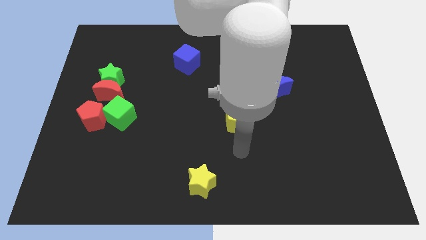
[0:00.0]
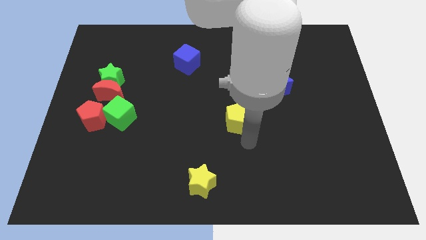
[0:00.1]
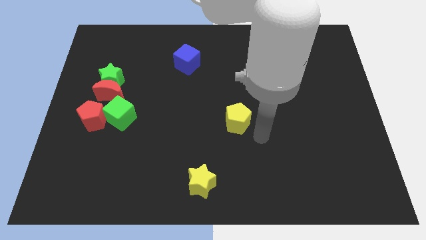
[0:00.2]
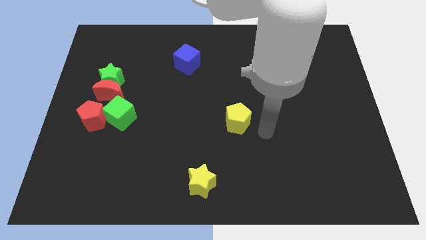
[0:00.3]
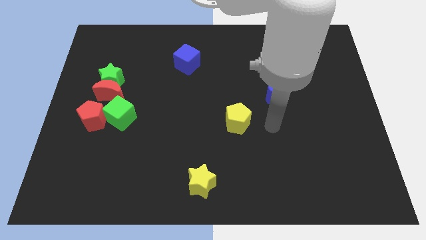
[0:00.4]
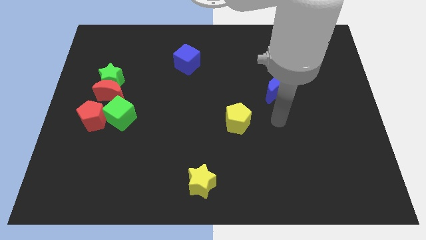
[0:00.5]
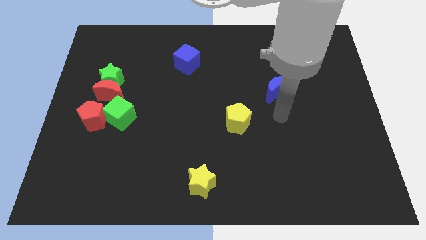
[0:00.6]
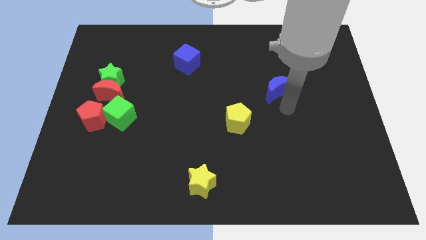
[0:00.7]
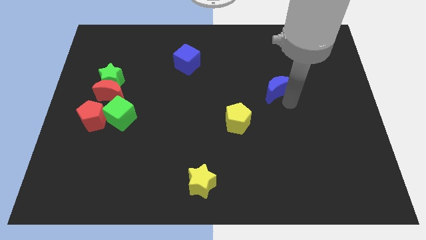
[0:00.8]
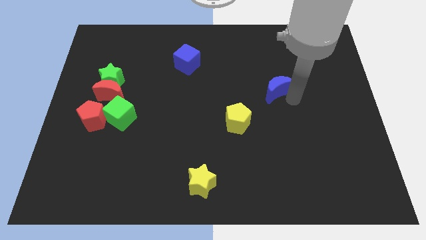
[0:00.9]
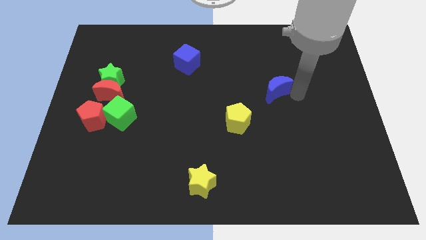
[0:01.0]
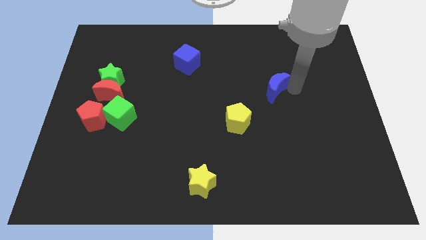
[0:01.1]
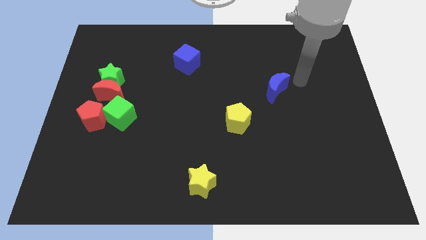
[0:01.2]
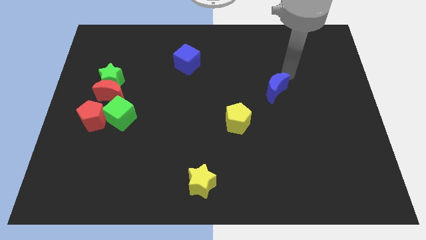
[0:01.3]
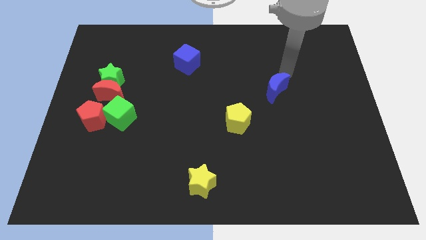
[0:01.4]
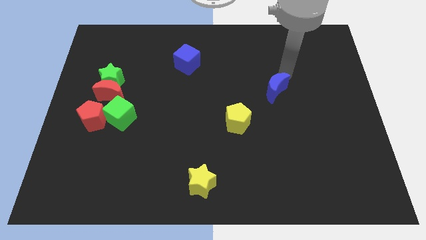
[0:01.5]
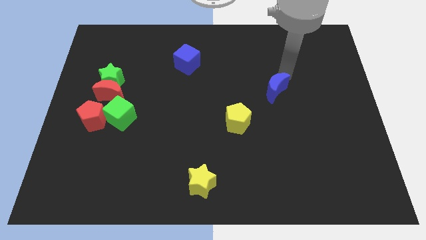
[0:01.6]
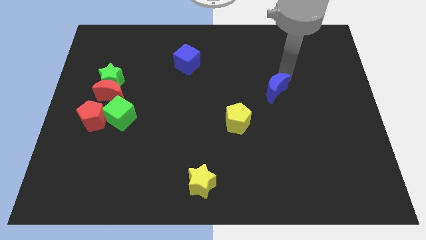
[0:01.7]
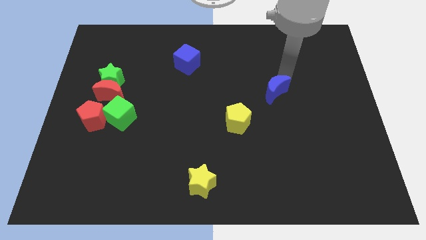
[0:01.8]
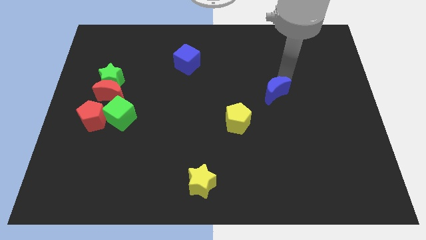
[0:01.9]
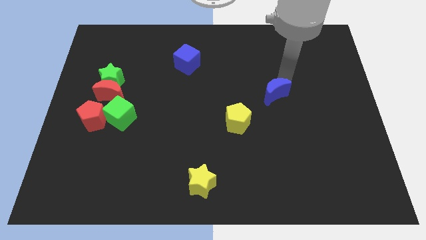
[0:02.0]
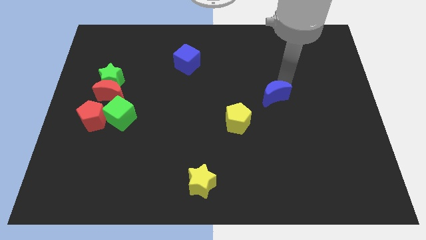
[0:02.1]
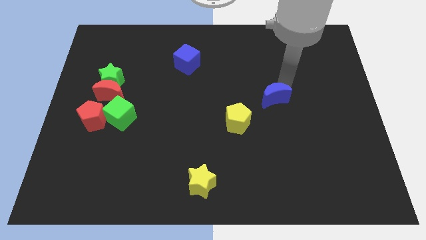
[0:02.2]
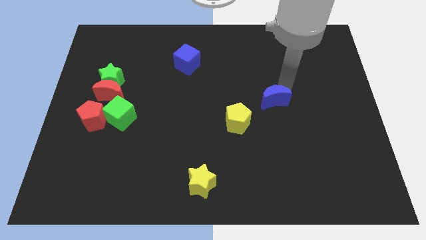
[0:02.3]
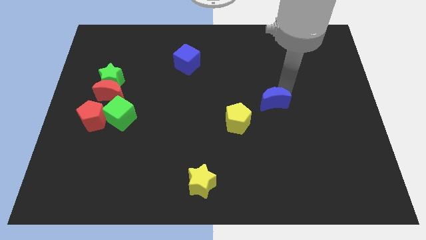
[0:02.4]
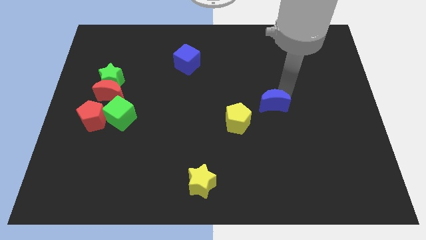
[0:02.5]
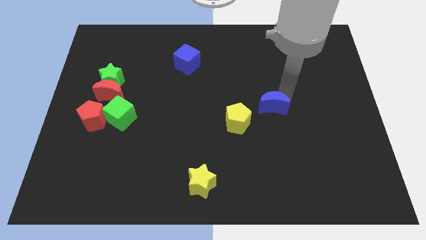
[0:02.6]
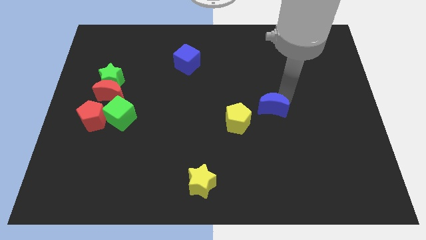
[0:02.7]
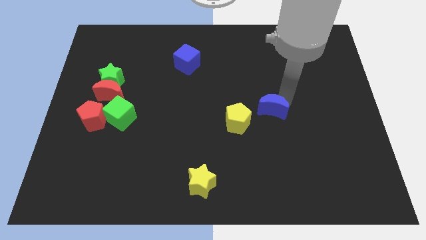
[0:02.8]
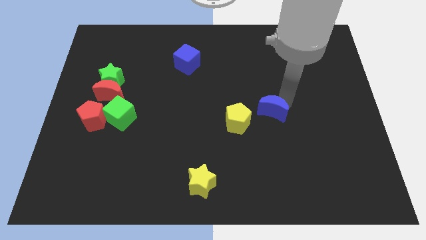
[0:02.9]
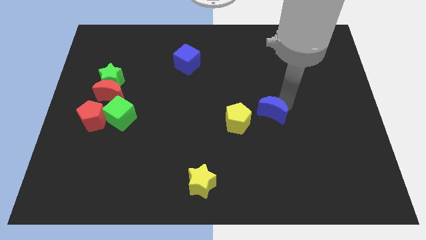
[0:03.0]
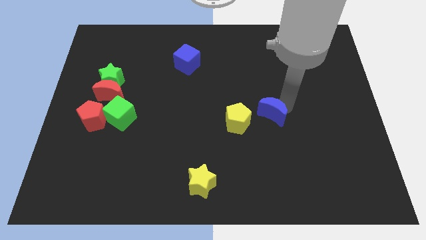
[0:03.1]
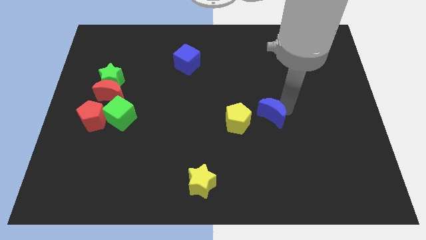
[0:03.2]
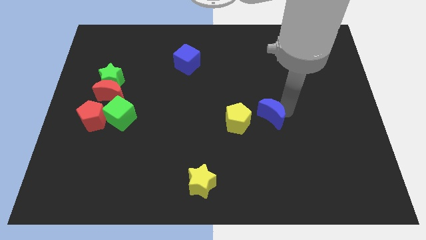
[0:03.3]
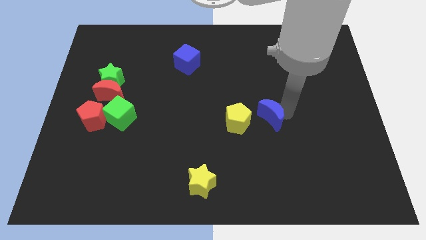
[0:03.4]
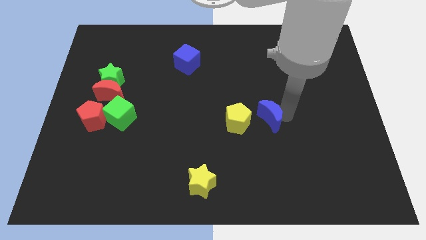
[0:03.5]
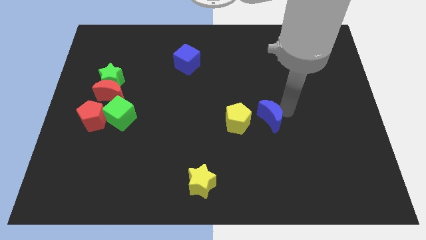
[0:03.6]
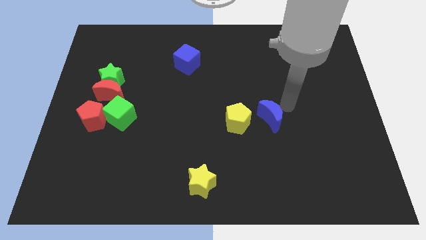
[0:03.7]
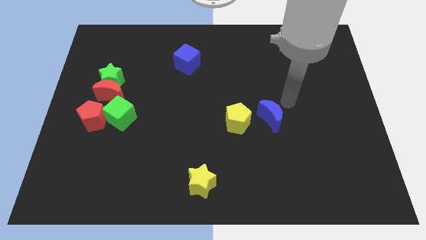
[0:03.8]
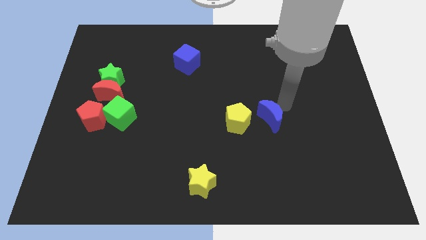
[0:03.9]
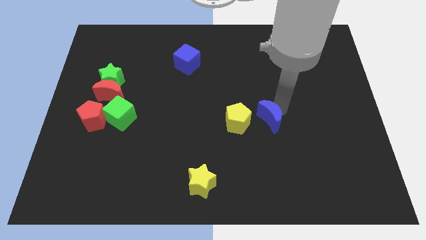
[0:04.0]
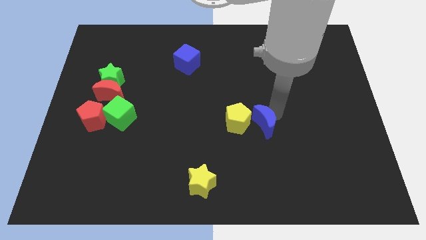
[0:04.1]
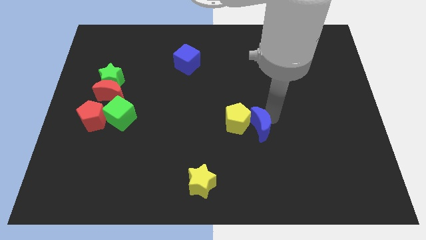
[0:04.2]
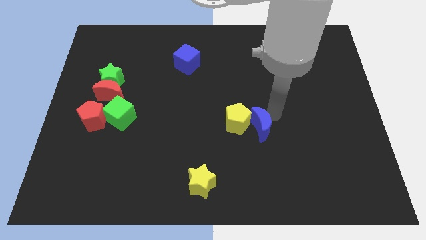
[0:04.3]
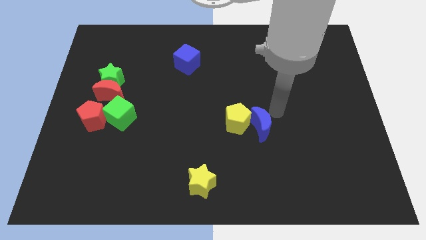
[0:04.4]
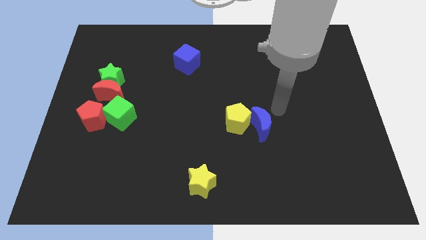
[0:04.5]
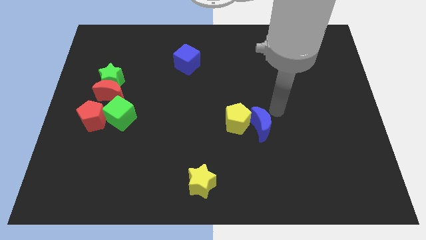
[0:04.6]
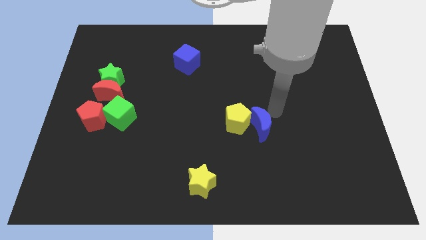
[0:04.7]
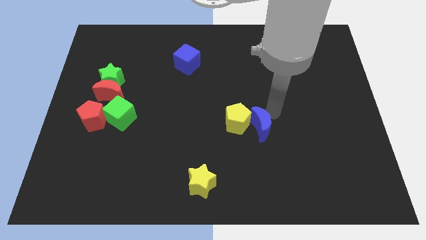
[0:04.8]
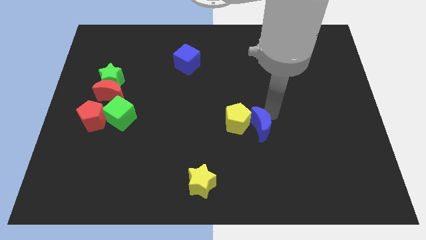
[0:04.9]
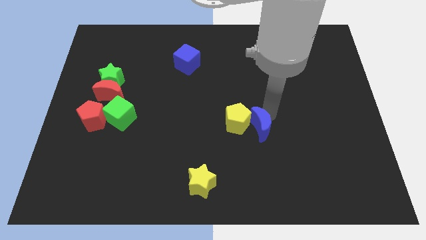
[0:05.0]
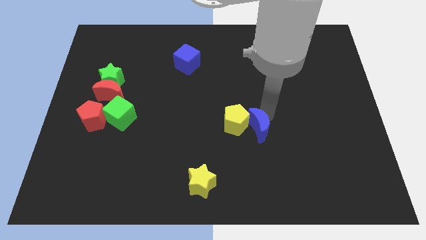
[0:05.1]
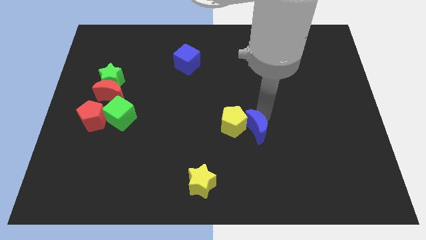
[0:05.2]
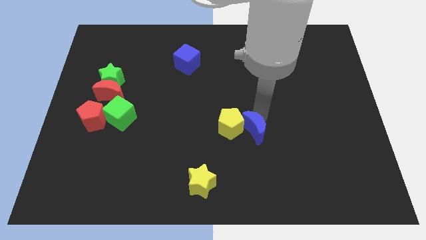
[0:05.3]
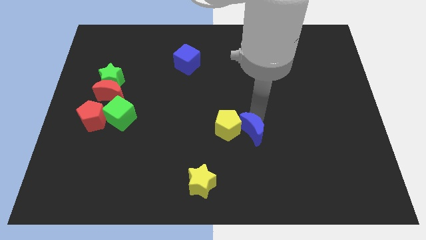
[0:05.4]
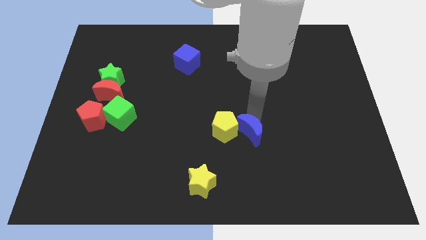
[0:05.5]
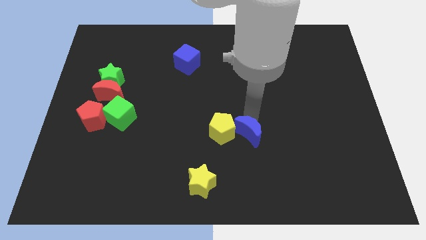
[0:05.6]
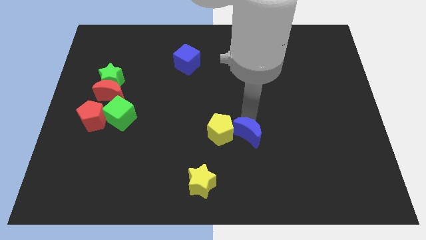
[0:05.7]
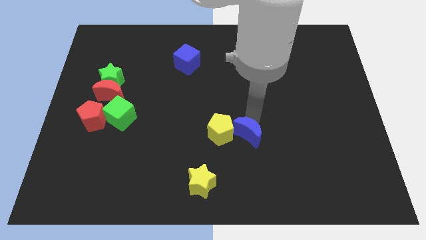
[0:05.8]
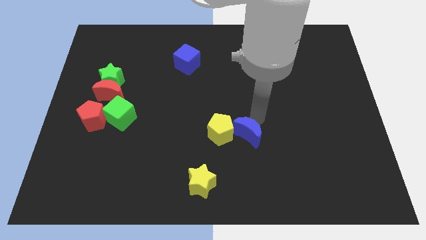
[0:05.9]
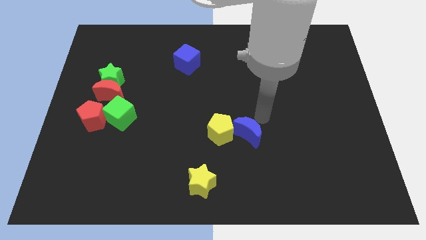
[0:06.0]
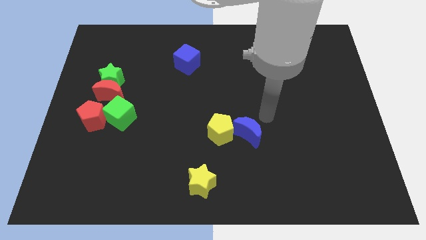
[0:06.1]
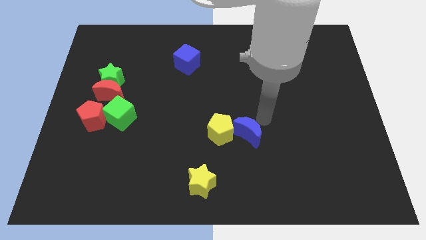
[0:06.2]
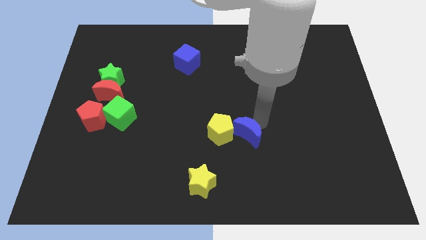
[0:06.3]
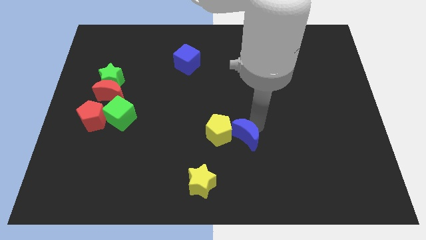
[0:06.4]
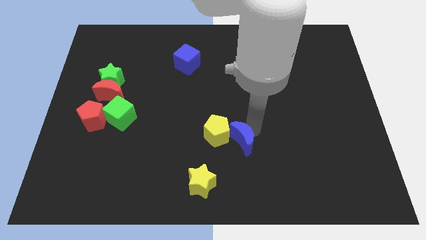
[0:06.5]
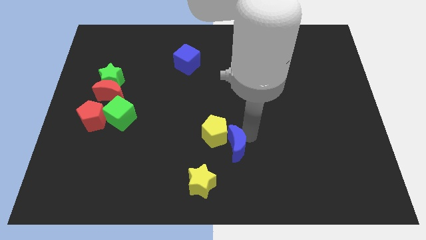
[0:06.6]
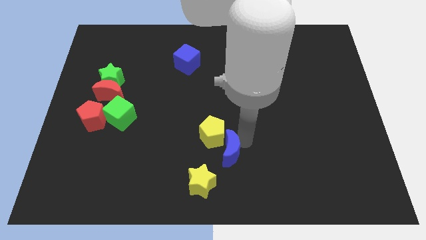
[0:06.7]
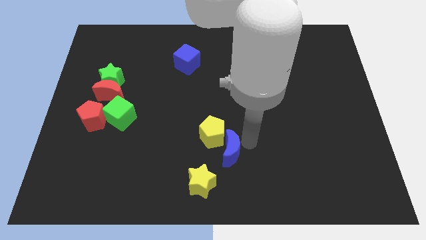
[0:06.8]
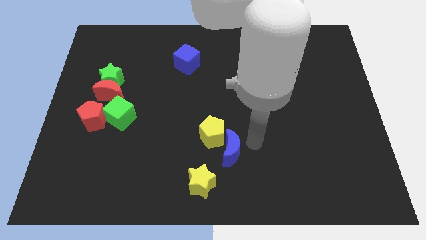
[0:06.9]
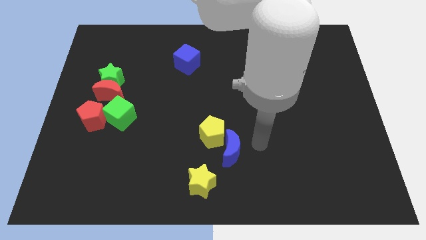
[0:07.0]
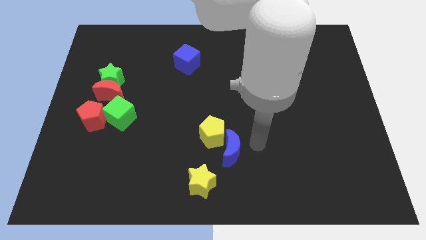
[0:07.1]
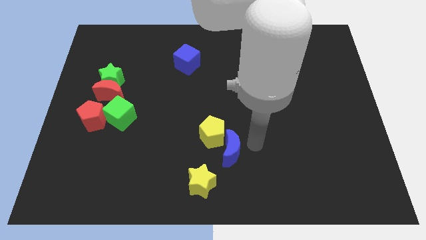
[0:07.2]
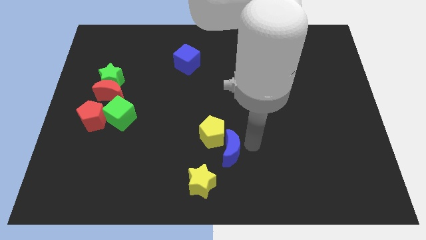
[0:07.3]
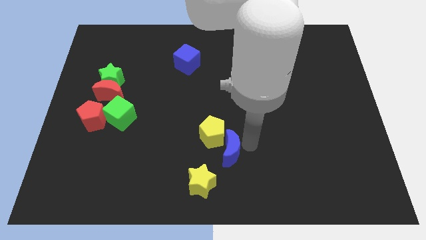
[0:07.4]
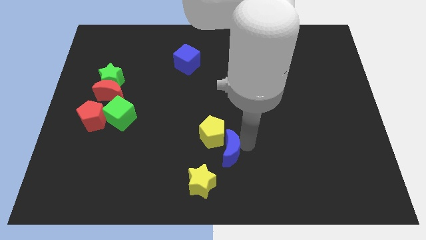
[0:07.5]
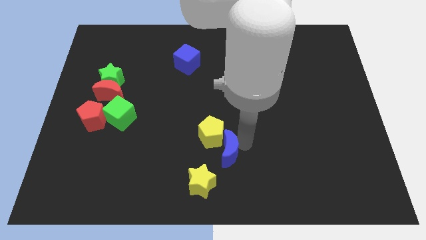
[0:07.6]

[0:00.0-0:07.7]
push the blue moon downwards and left
